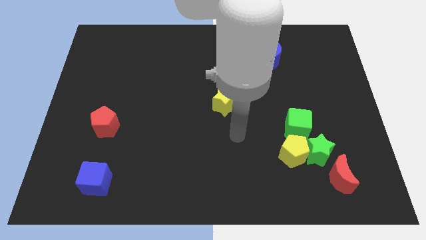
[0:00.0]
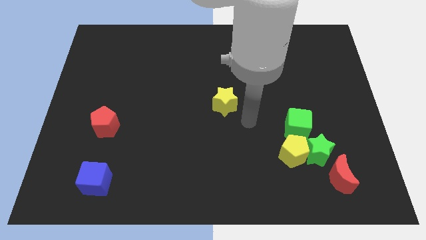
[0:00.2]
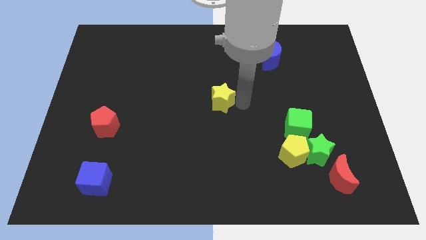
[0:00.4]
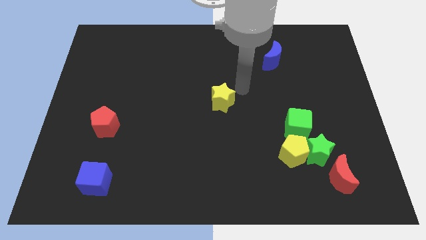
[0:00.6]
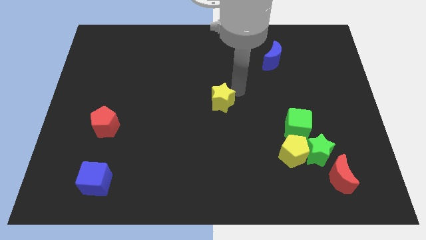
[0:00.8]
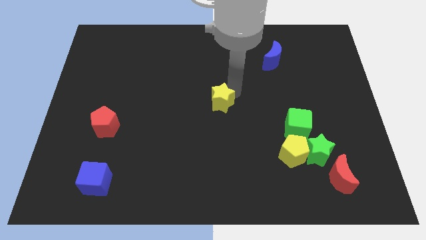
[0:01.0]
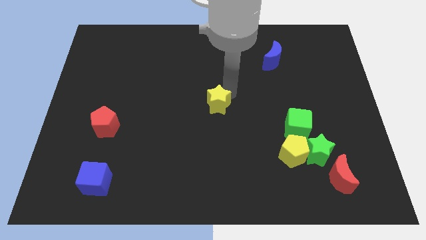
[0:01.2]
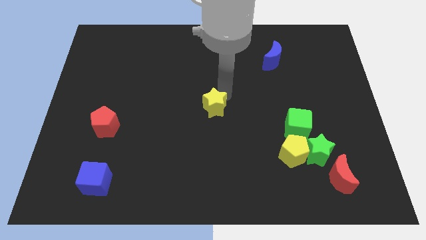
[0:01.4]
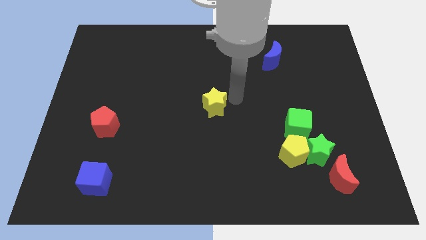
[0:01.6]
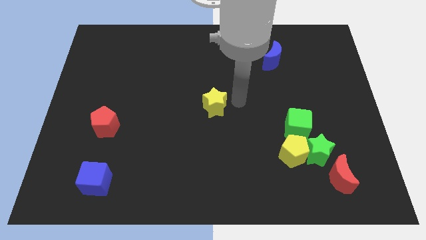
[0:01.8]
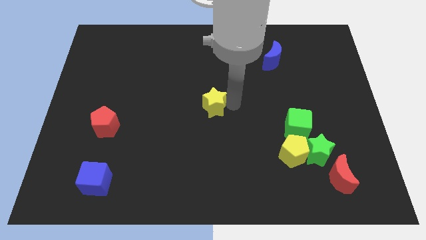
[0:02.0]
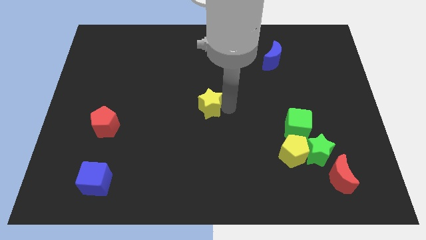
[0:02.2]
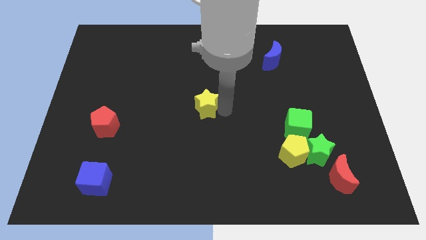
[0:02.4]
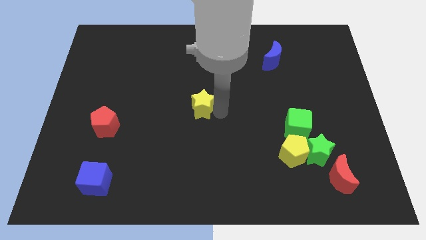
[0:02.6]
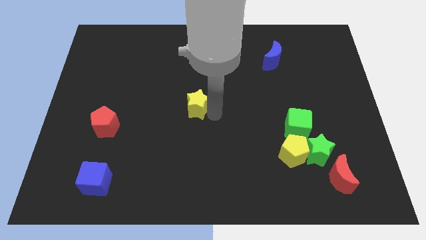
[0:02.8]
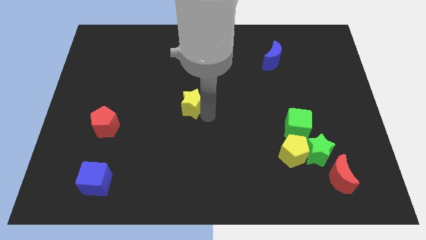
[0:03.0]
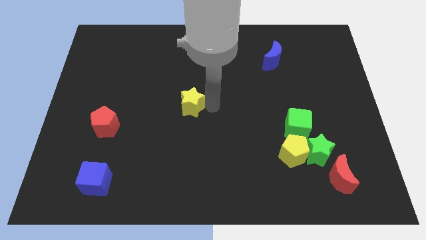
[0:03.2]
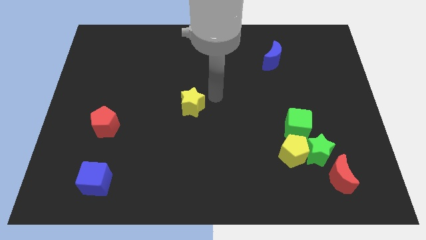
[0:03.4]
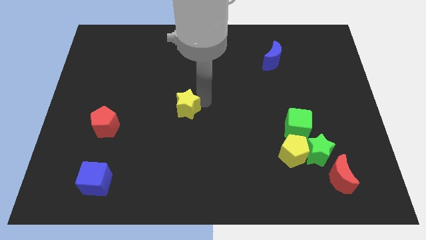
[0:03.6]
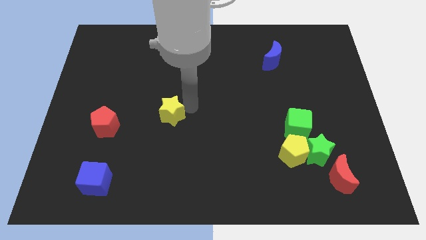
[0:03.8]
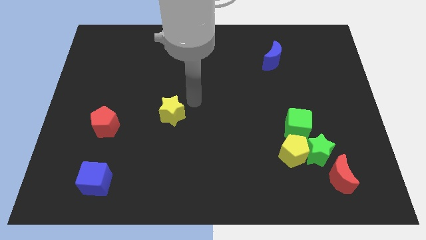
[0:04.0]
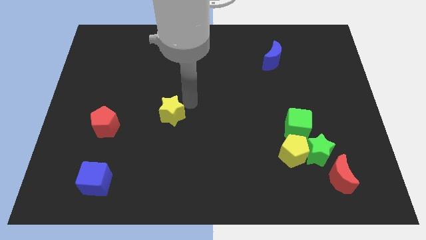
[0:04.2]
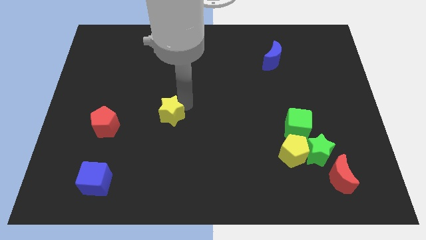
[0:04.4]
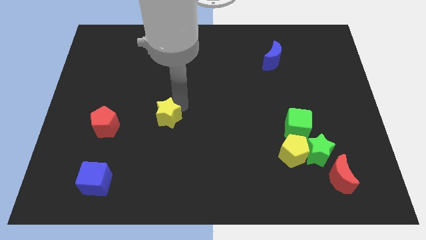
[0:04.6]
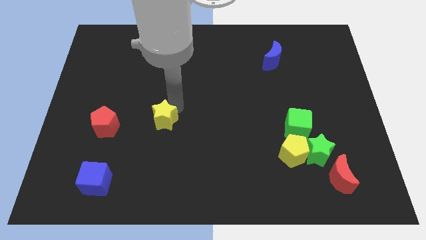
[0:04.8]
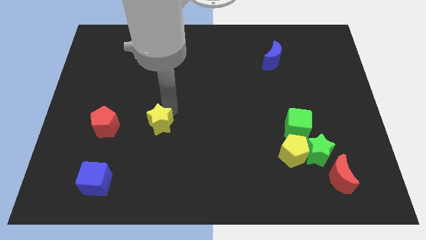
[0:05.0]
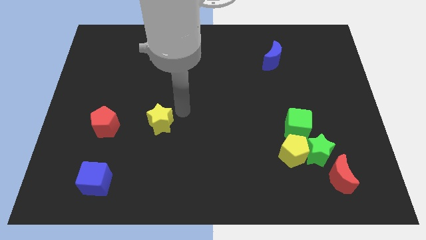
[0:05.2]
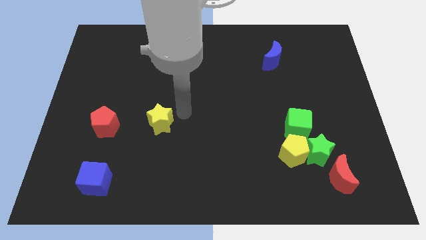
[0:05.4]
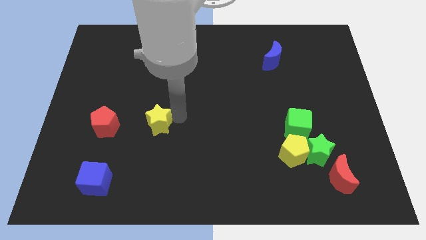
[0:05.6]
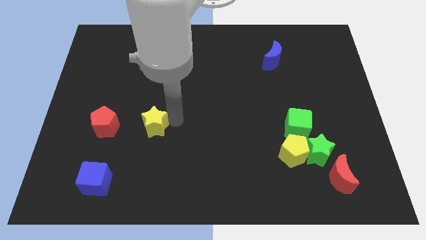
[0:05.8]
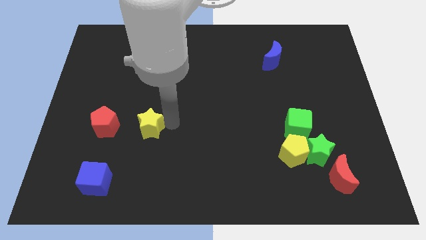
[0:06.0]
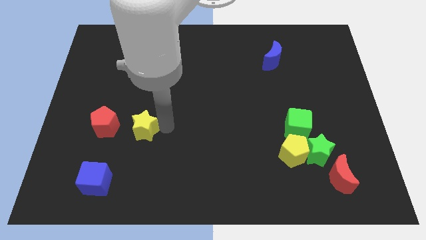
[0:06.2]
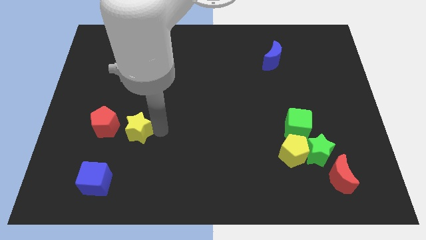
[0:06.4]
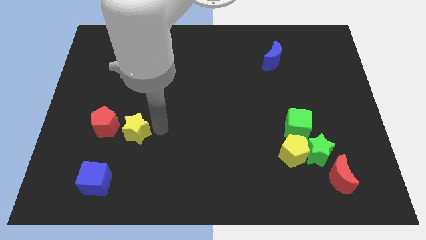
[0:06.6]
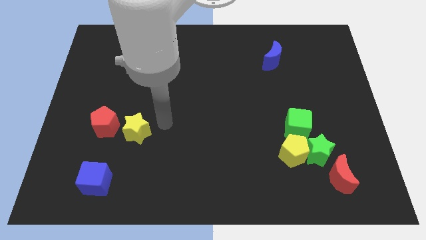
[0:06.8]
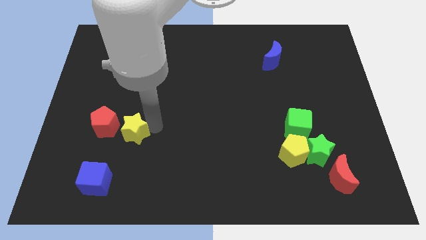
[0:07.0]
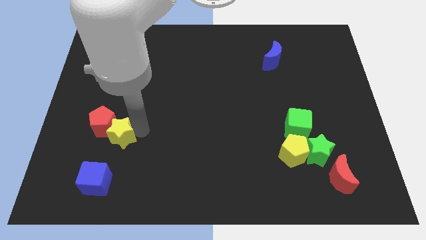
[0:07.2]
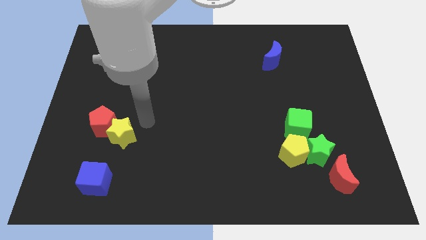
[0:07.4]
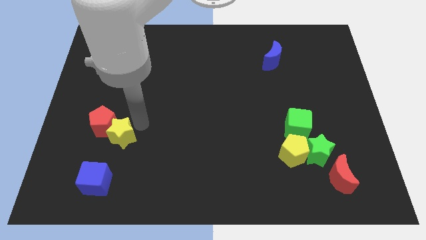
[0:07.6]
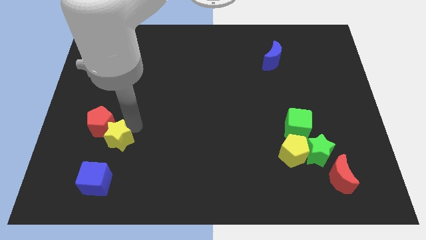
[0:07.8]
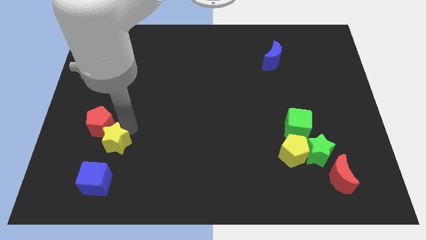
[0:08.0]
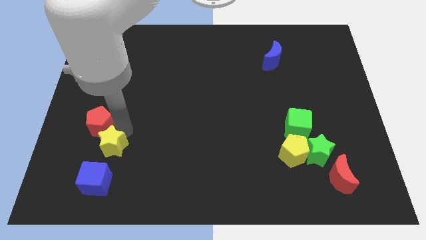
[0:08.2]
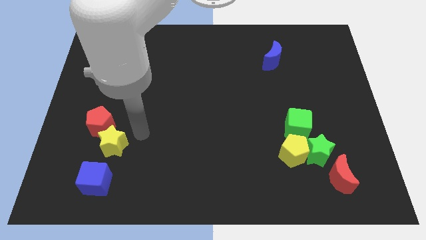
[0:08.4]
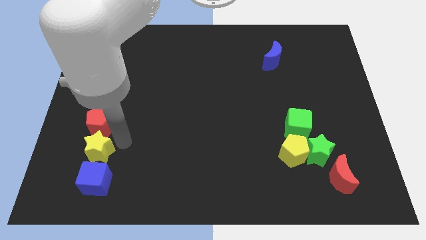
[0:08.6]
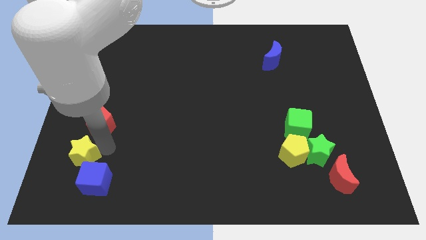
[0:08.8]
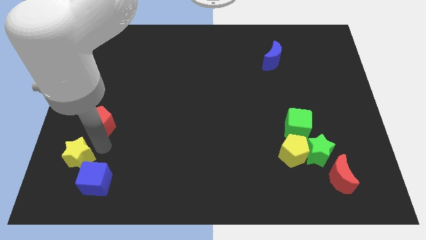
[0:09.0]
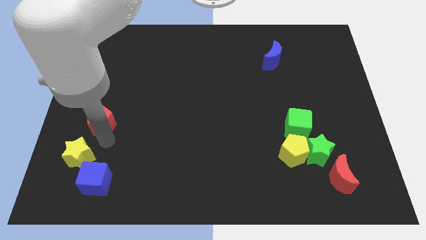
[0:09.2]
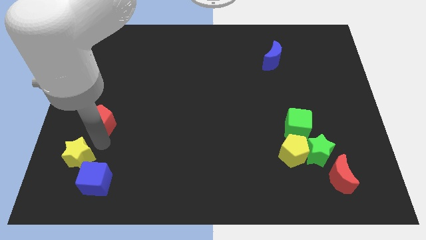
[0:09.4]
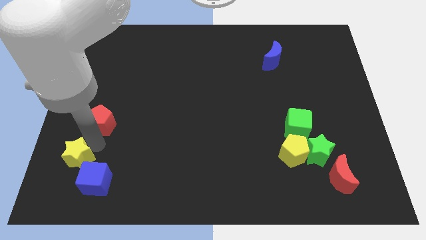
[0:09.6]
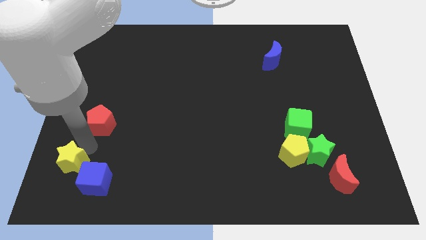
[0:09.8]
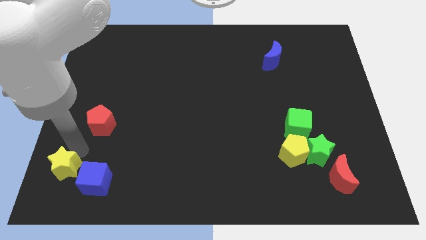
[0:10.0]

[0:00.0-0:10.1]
slide the yellow star to the bottom left of the board

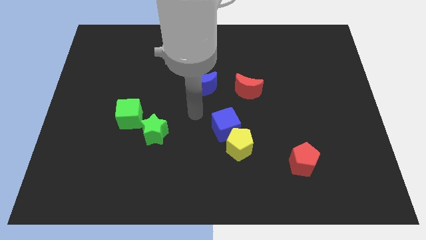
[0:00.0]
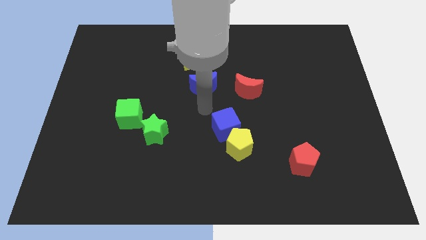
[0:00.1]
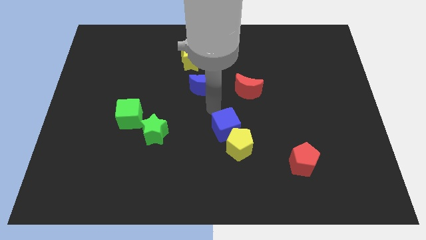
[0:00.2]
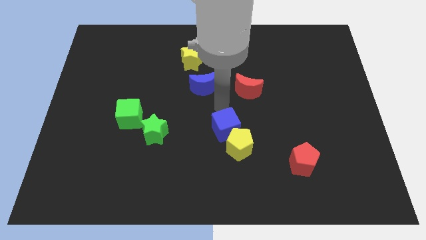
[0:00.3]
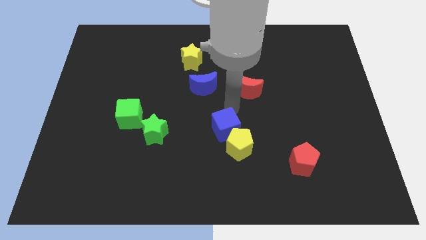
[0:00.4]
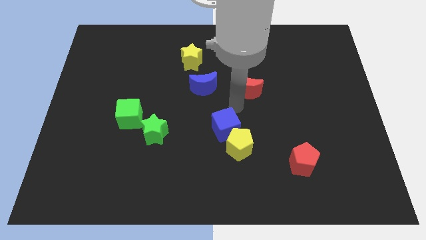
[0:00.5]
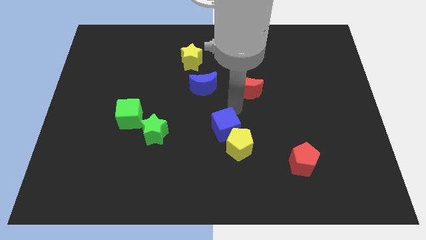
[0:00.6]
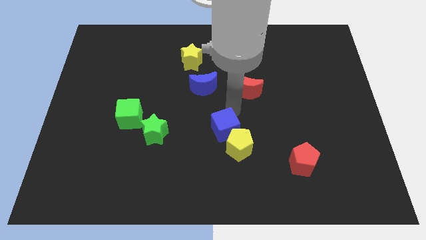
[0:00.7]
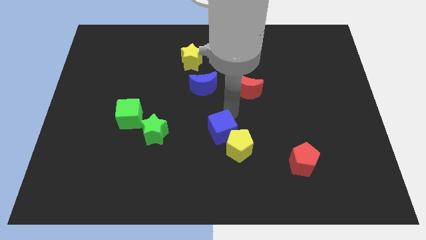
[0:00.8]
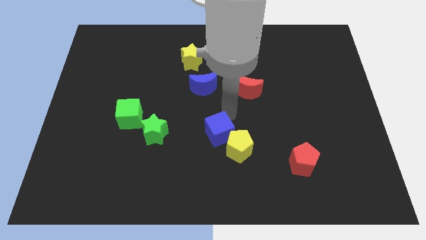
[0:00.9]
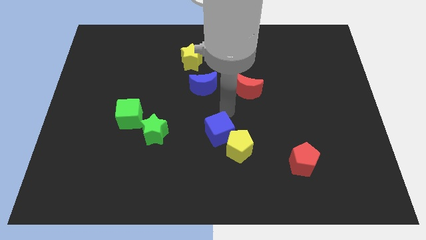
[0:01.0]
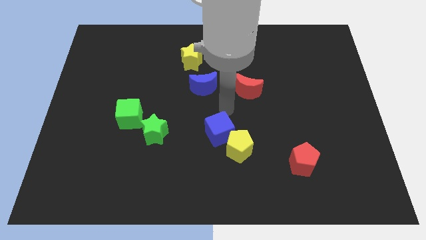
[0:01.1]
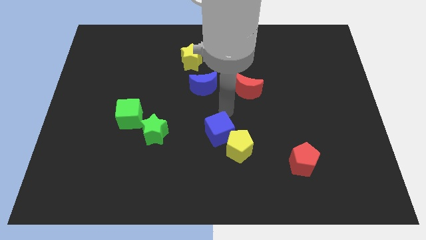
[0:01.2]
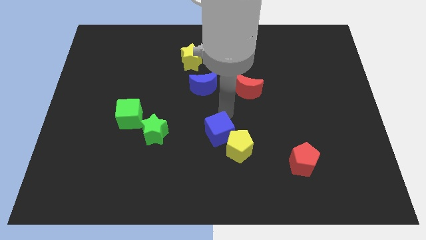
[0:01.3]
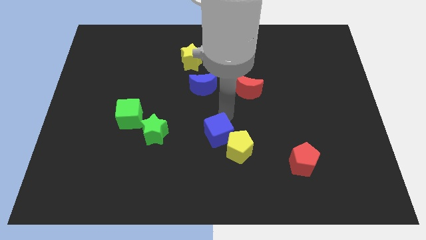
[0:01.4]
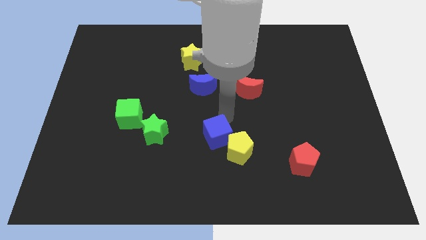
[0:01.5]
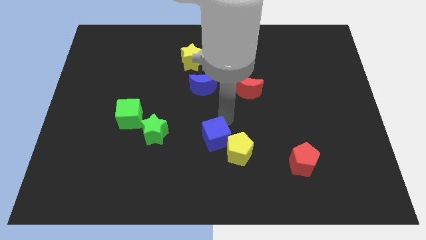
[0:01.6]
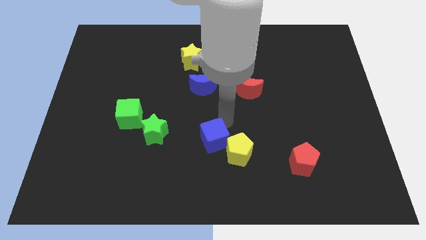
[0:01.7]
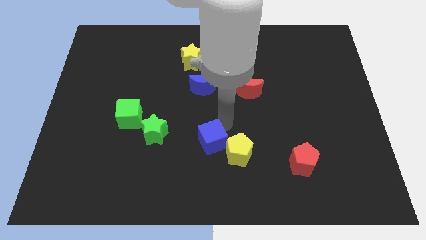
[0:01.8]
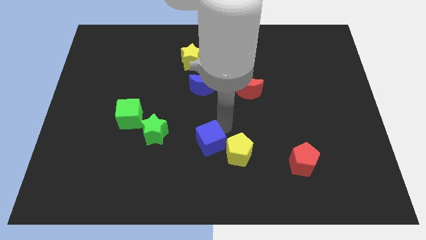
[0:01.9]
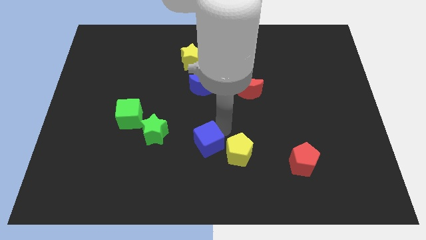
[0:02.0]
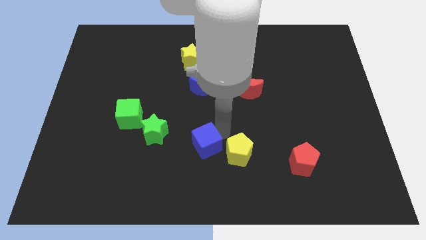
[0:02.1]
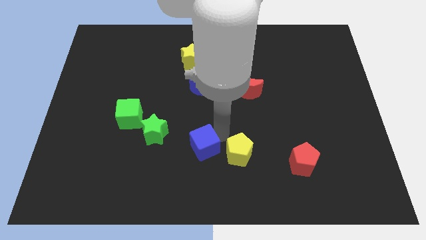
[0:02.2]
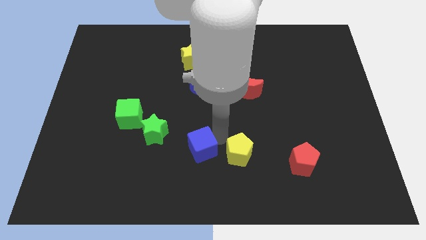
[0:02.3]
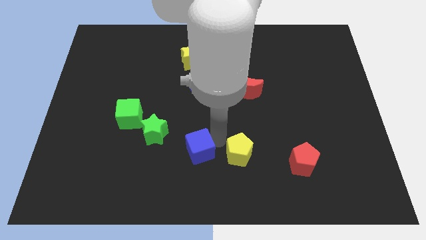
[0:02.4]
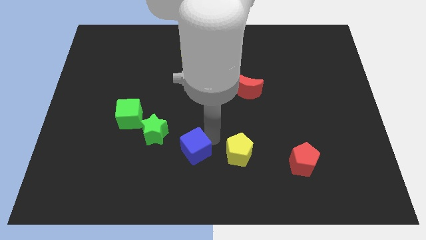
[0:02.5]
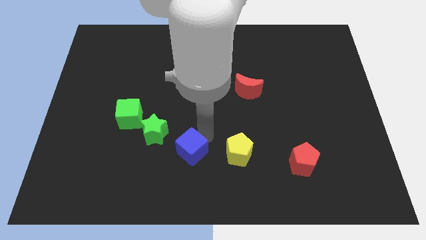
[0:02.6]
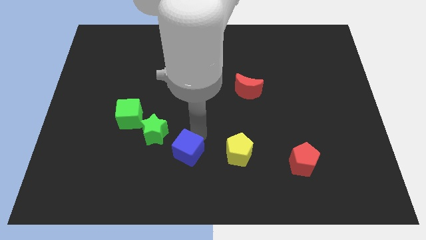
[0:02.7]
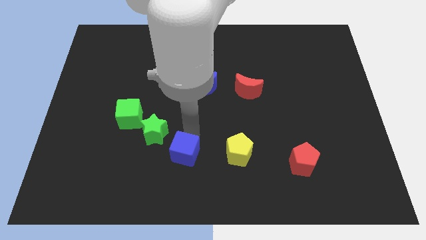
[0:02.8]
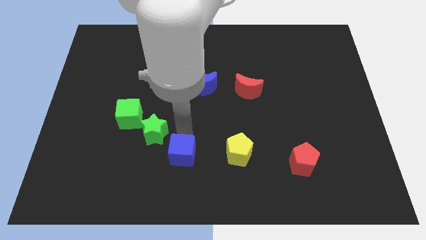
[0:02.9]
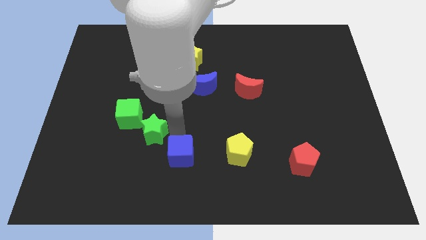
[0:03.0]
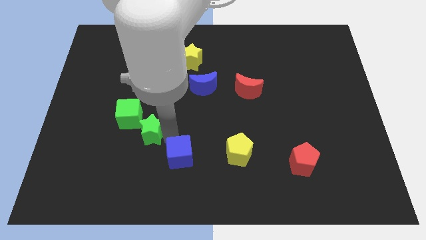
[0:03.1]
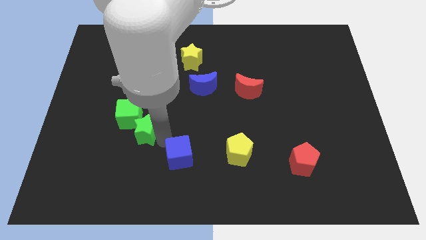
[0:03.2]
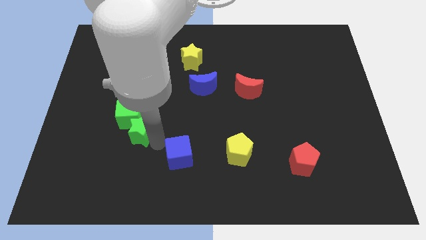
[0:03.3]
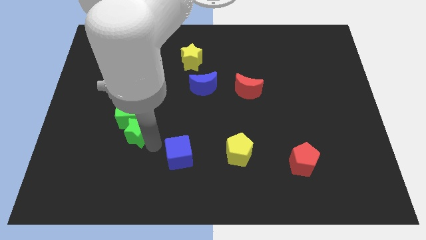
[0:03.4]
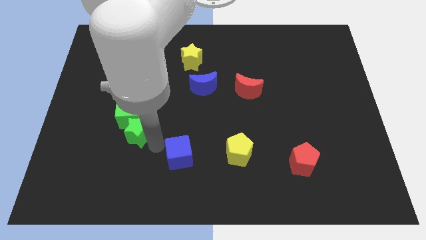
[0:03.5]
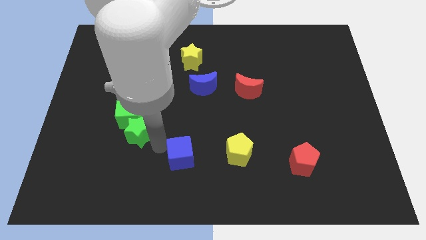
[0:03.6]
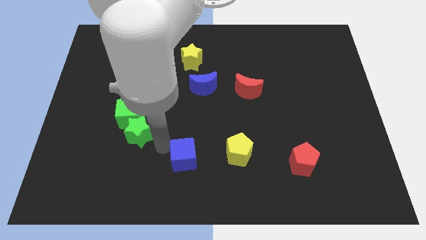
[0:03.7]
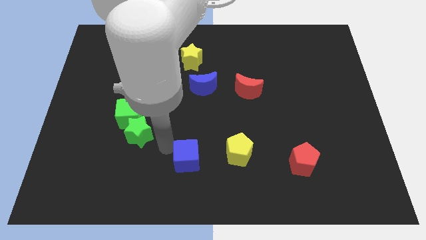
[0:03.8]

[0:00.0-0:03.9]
put the blue cube to the bottom side
